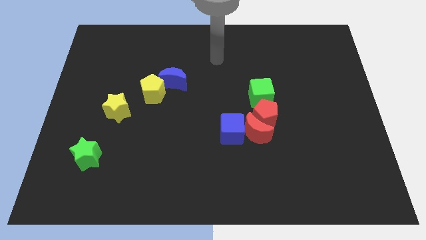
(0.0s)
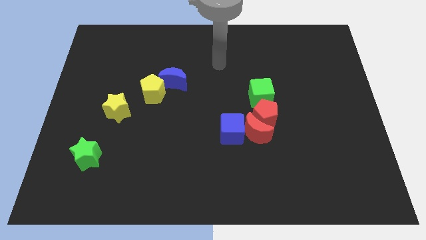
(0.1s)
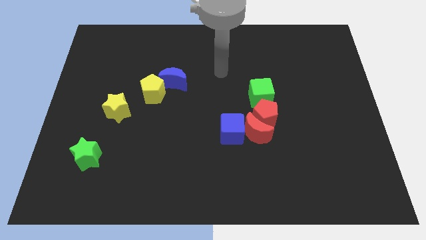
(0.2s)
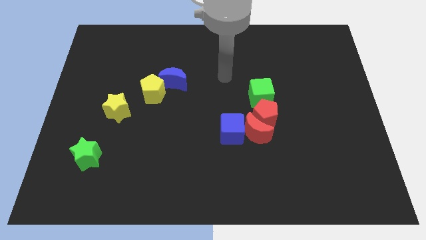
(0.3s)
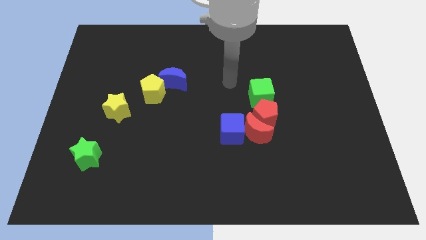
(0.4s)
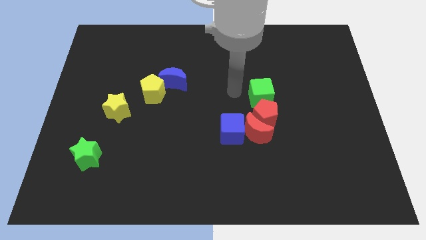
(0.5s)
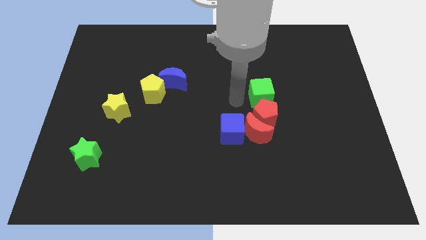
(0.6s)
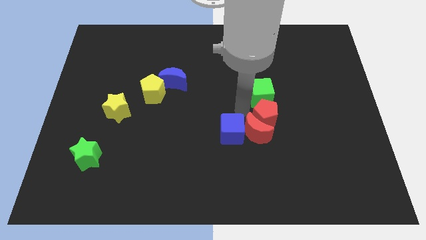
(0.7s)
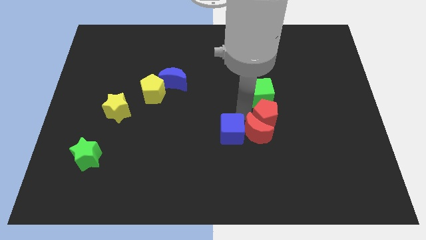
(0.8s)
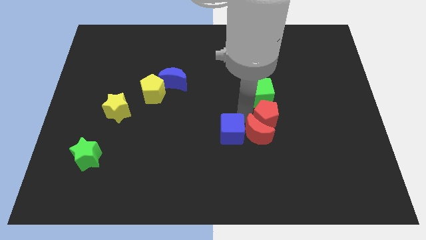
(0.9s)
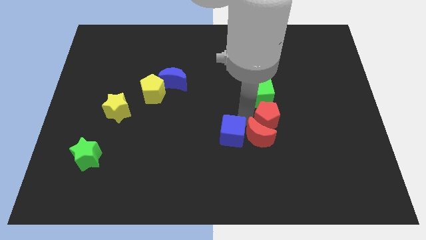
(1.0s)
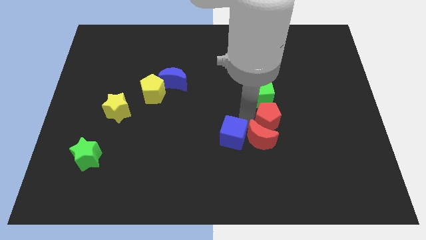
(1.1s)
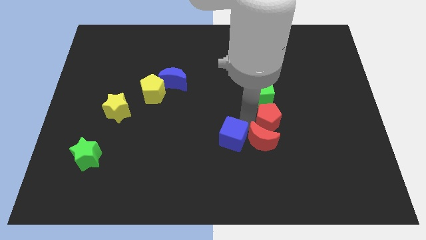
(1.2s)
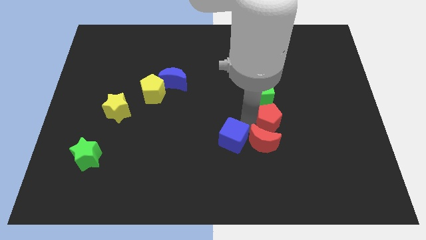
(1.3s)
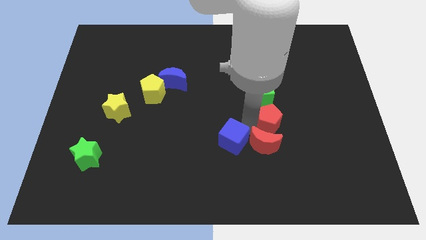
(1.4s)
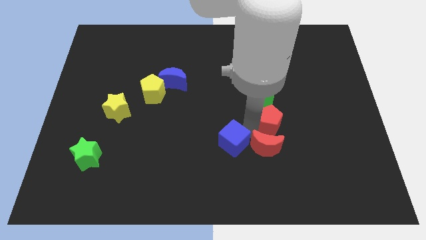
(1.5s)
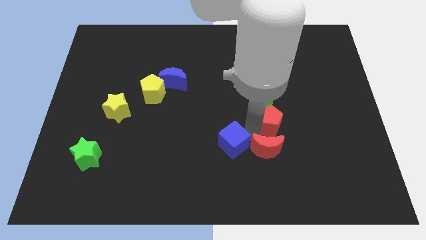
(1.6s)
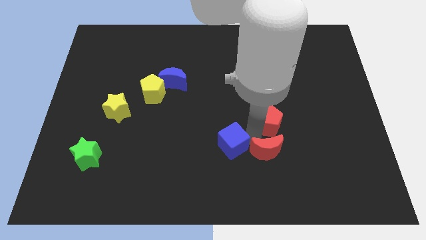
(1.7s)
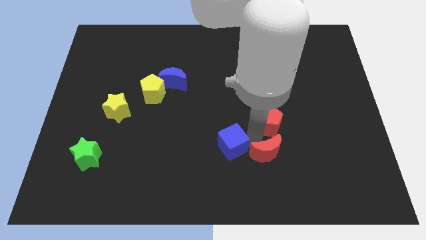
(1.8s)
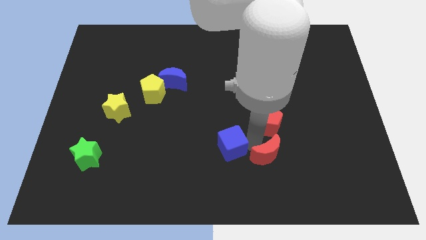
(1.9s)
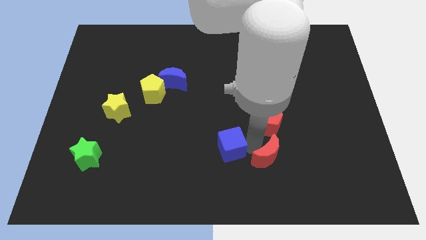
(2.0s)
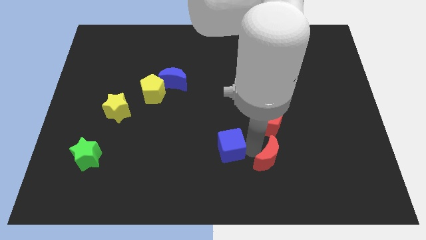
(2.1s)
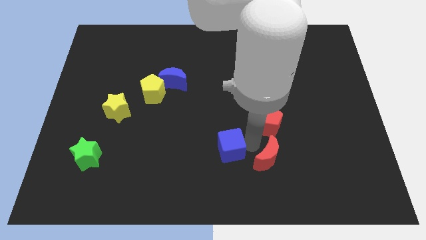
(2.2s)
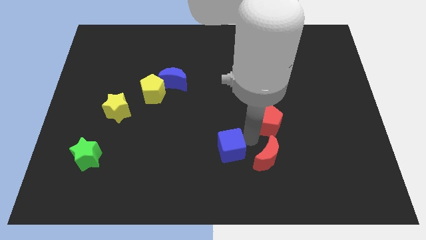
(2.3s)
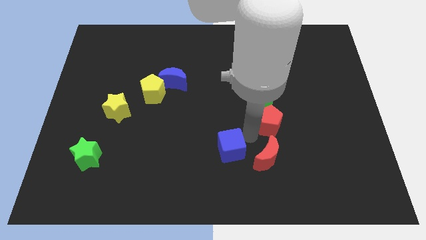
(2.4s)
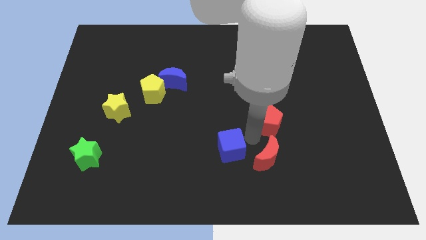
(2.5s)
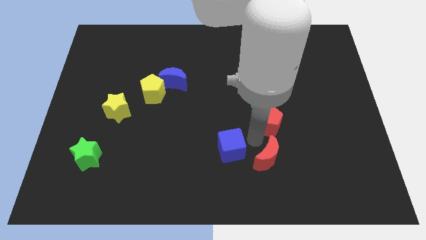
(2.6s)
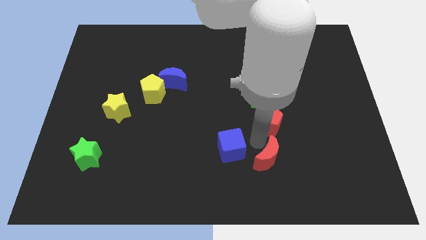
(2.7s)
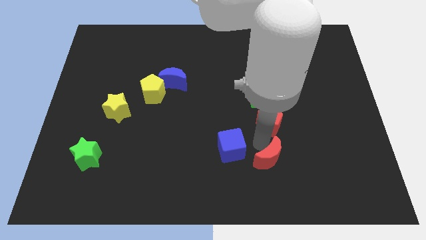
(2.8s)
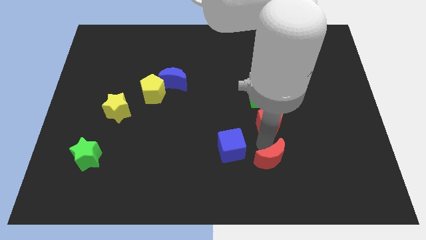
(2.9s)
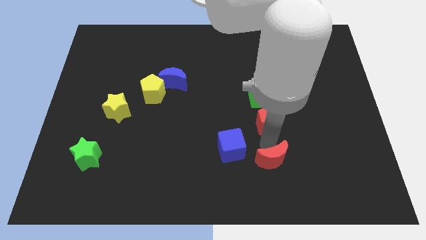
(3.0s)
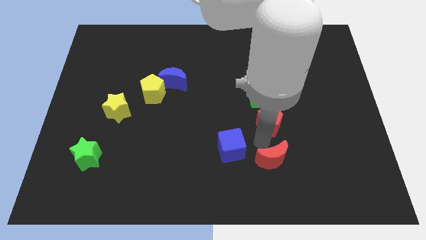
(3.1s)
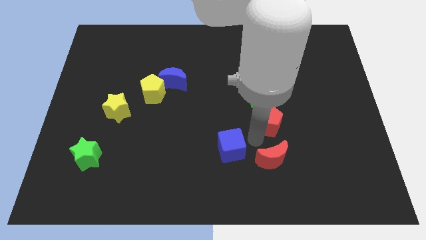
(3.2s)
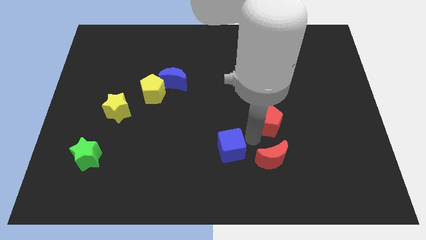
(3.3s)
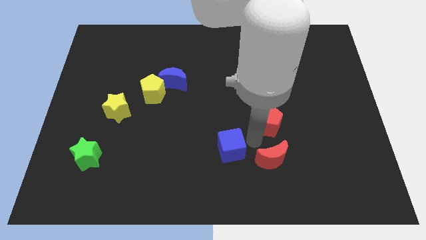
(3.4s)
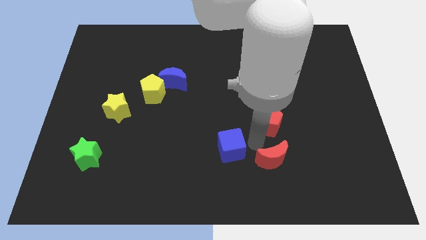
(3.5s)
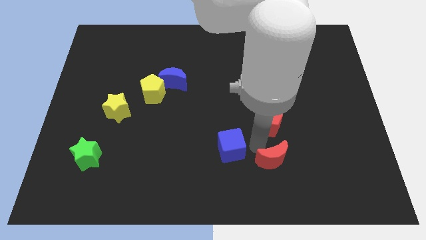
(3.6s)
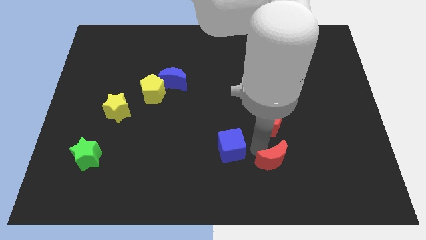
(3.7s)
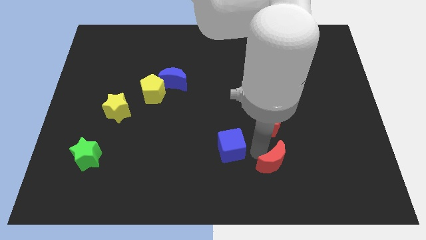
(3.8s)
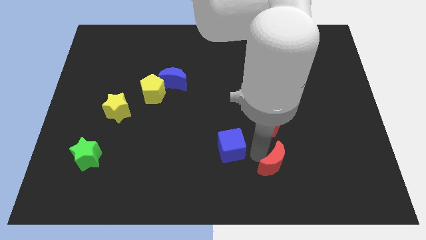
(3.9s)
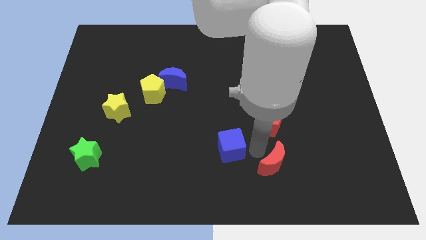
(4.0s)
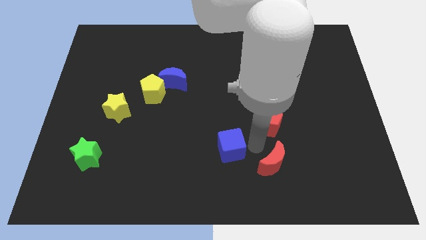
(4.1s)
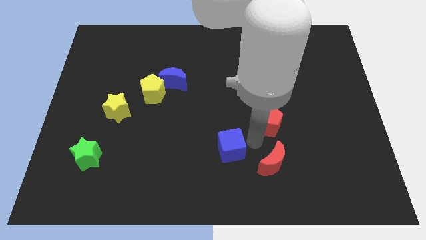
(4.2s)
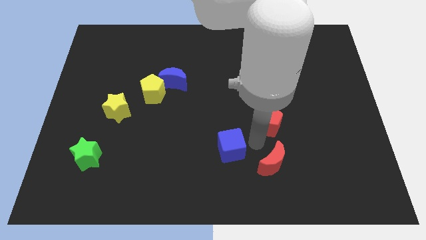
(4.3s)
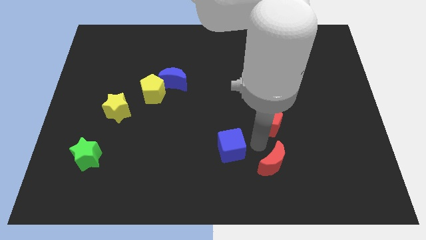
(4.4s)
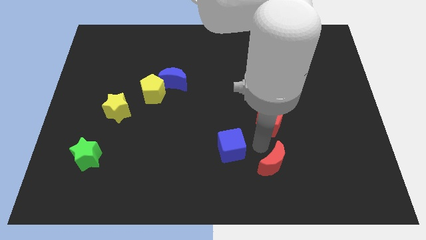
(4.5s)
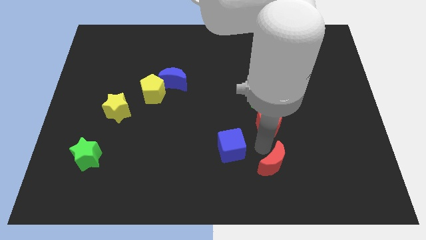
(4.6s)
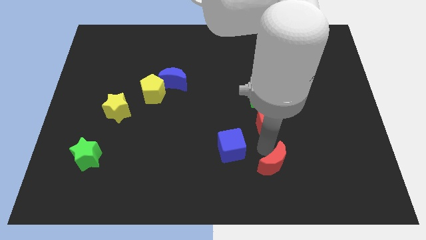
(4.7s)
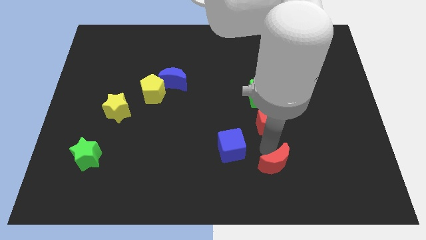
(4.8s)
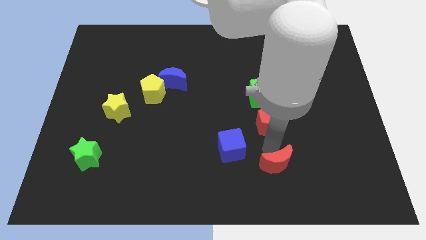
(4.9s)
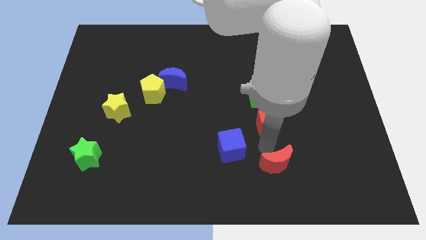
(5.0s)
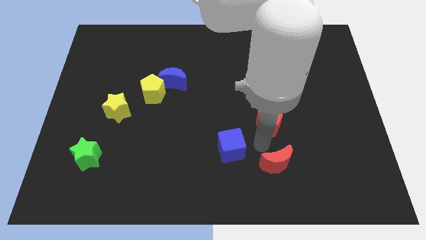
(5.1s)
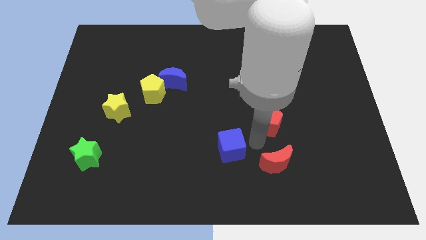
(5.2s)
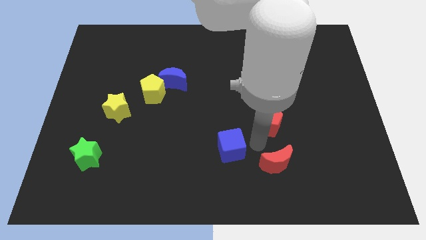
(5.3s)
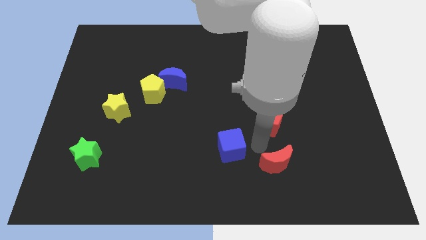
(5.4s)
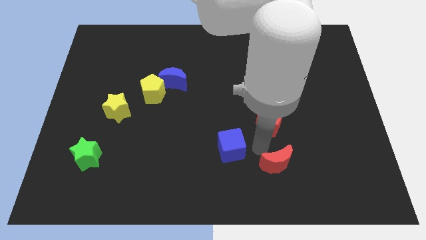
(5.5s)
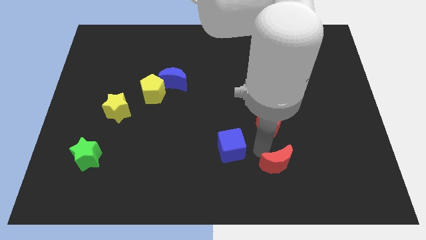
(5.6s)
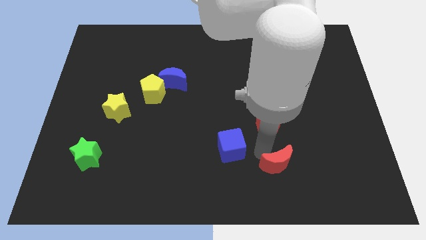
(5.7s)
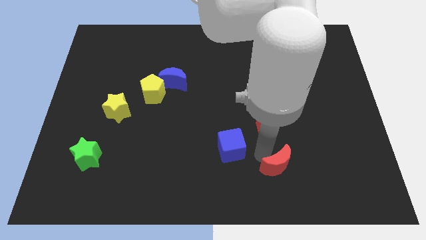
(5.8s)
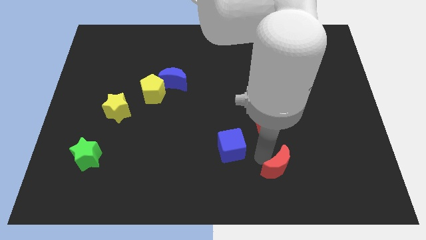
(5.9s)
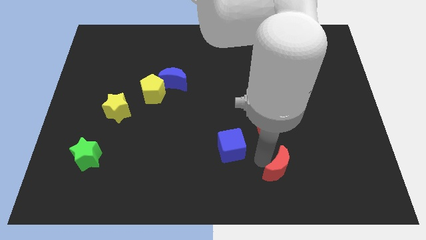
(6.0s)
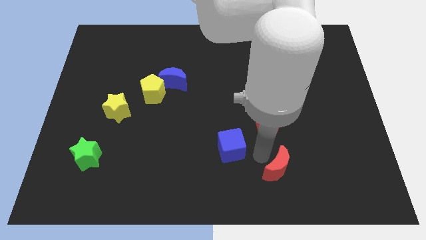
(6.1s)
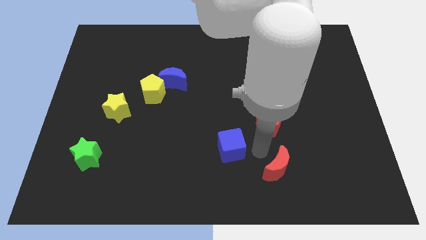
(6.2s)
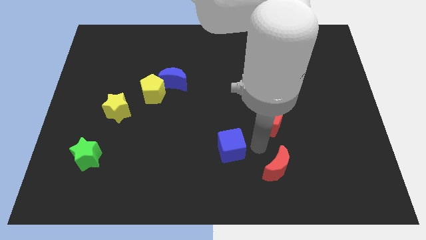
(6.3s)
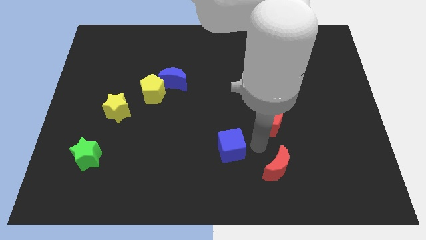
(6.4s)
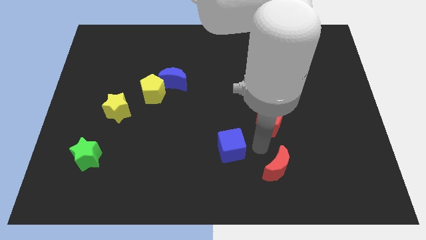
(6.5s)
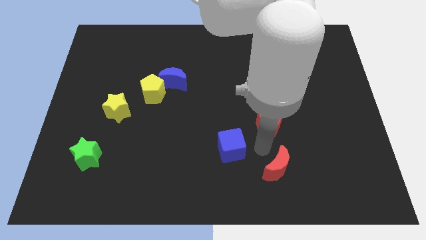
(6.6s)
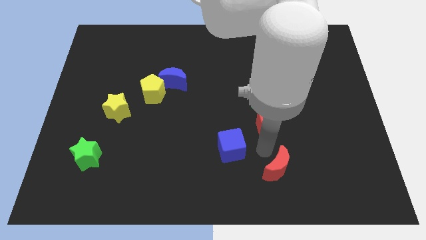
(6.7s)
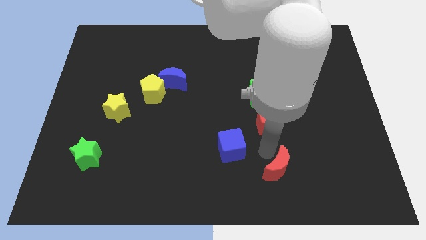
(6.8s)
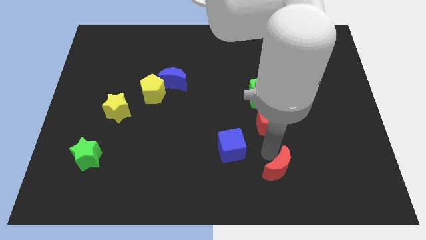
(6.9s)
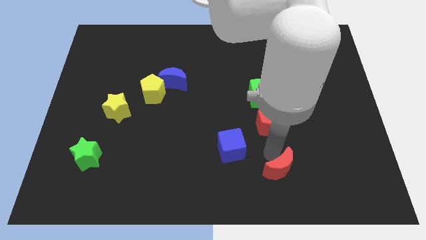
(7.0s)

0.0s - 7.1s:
pull the red moon apart from the red pentagon and blue cube

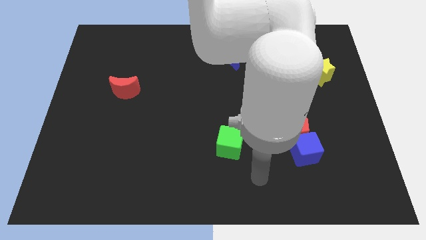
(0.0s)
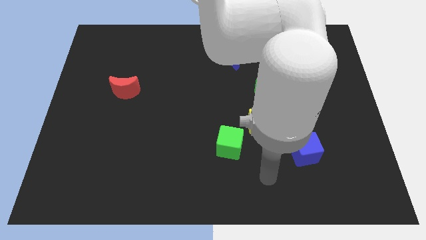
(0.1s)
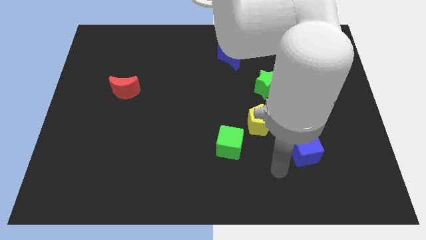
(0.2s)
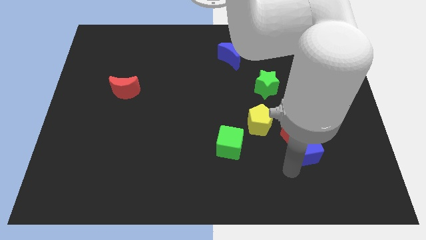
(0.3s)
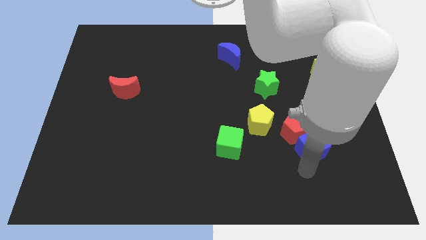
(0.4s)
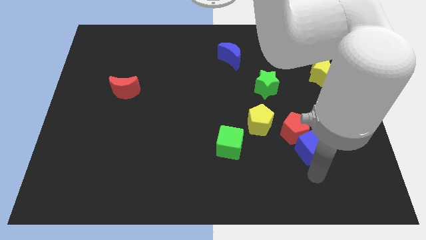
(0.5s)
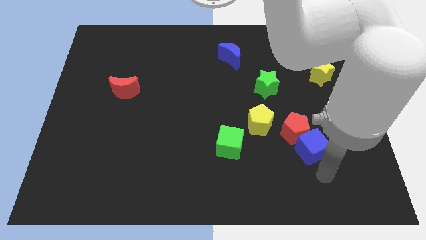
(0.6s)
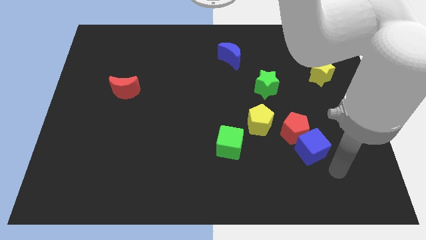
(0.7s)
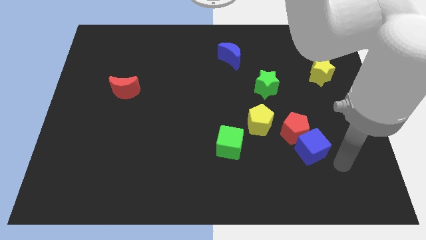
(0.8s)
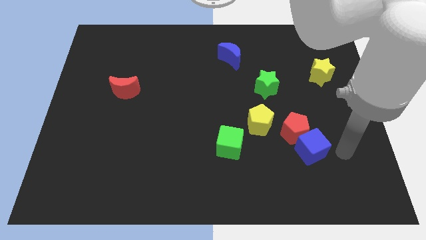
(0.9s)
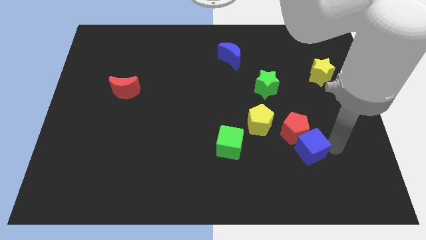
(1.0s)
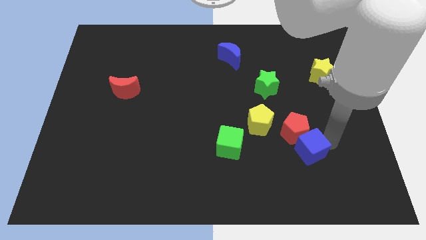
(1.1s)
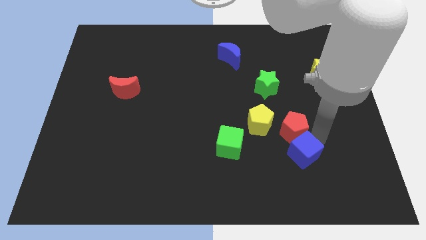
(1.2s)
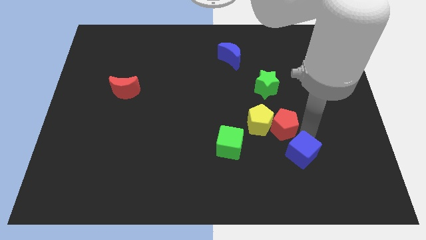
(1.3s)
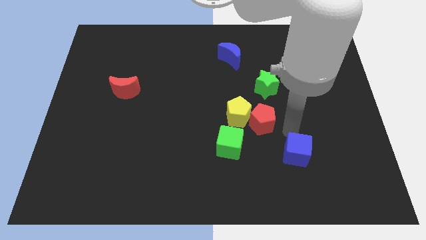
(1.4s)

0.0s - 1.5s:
pull the blue cube apart from the red pentagon

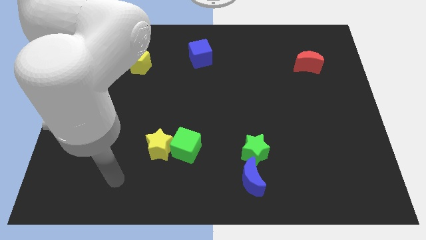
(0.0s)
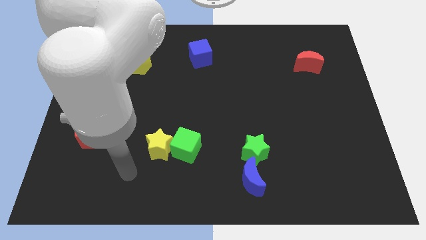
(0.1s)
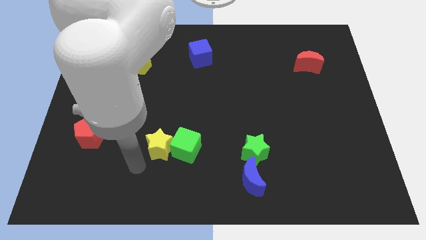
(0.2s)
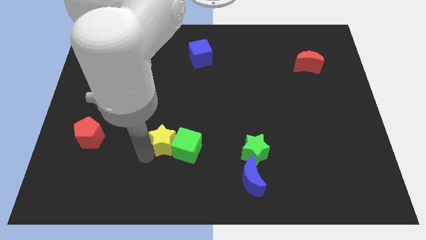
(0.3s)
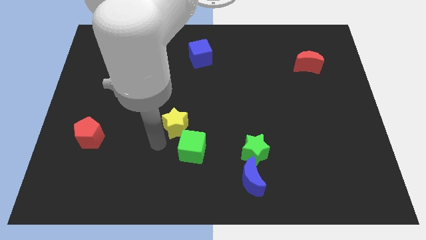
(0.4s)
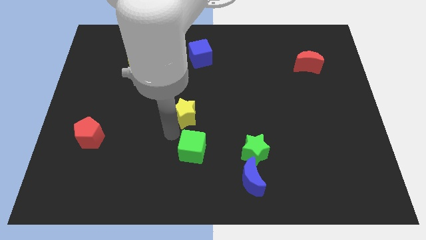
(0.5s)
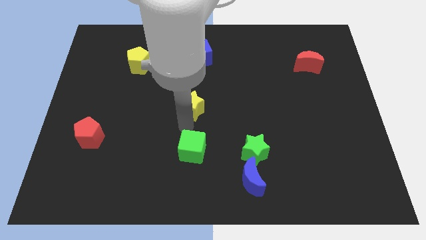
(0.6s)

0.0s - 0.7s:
move the green cube away from the yellow star
